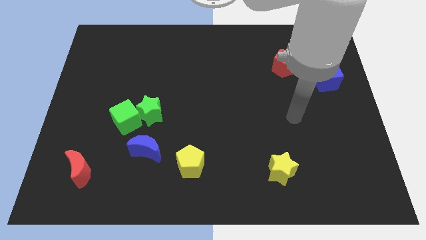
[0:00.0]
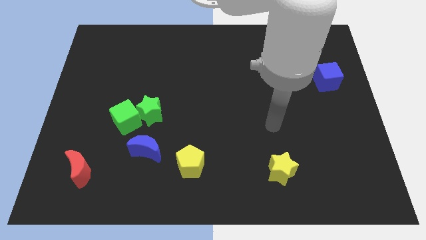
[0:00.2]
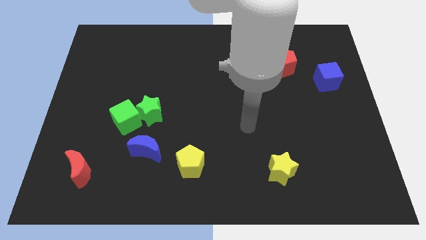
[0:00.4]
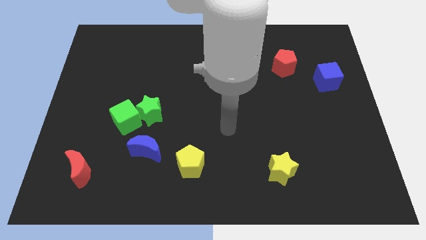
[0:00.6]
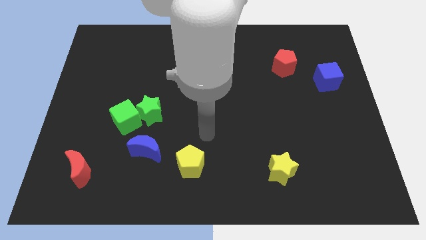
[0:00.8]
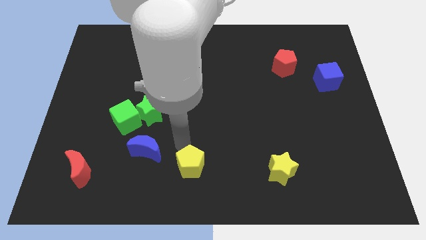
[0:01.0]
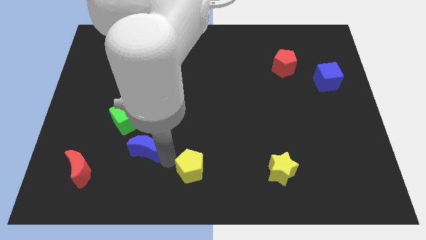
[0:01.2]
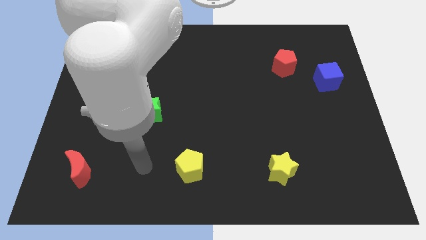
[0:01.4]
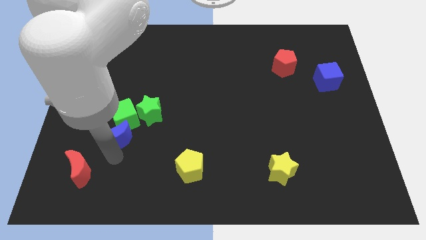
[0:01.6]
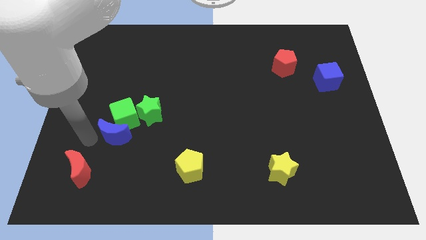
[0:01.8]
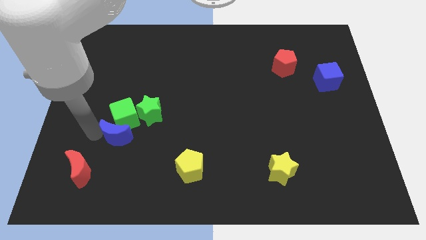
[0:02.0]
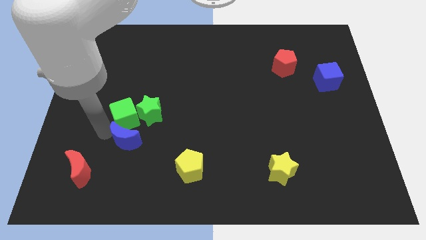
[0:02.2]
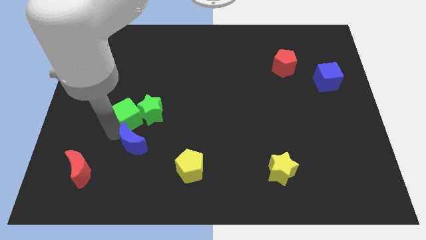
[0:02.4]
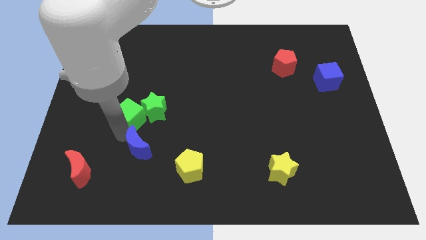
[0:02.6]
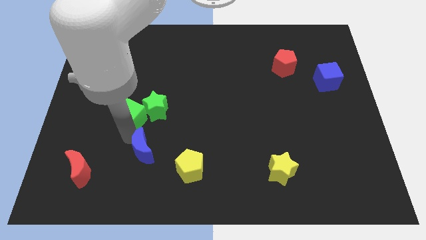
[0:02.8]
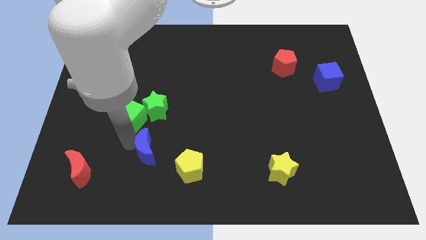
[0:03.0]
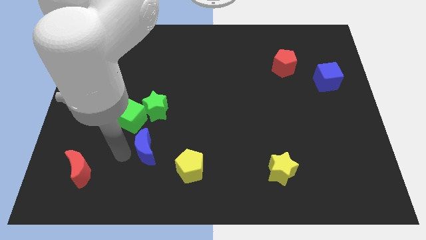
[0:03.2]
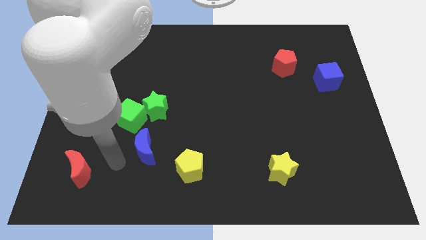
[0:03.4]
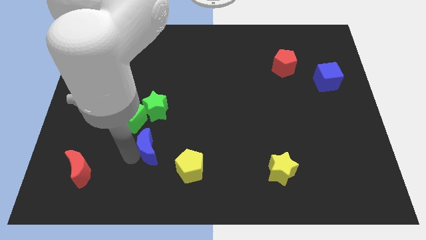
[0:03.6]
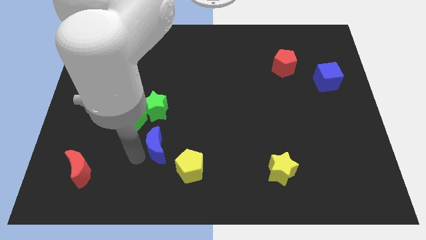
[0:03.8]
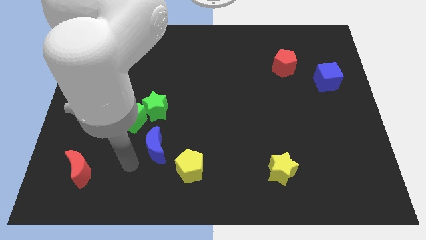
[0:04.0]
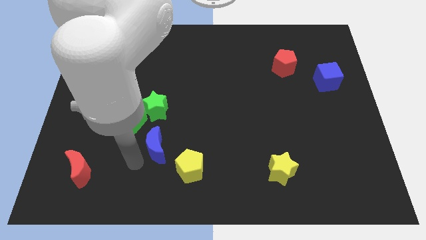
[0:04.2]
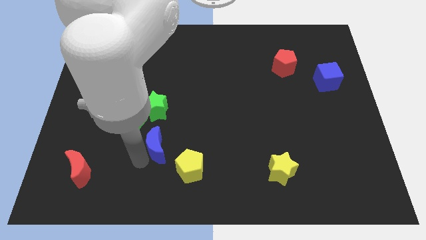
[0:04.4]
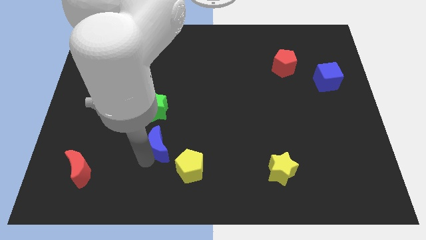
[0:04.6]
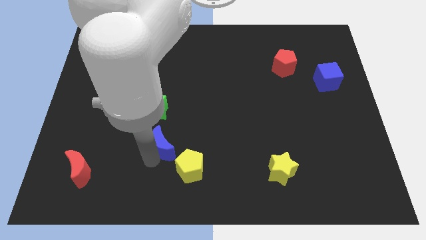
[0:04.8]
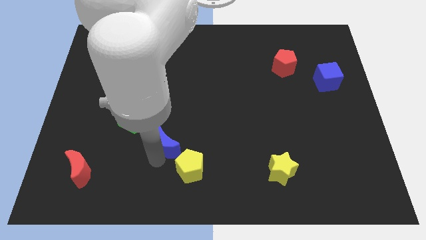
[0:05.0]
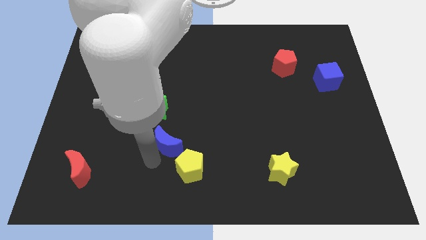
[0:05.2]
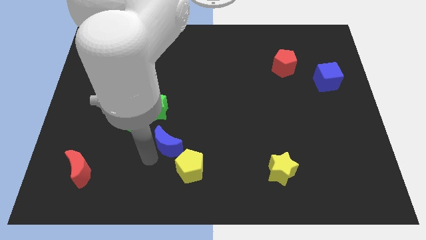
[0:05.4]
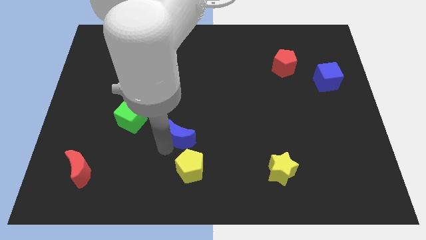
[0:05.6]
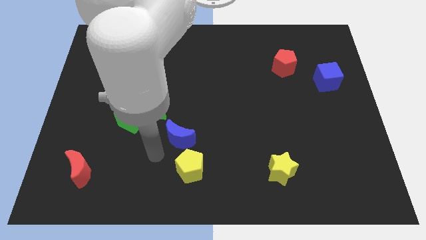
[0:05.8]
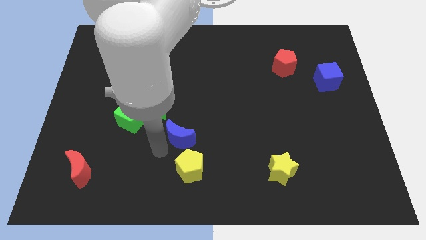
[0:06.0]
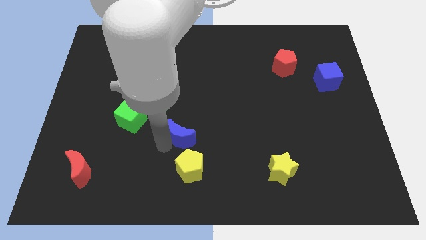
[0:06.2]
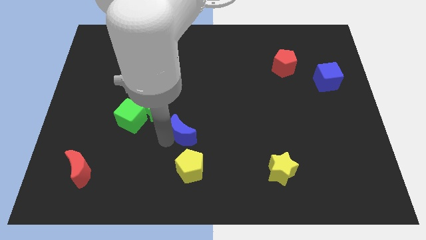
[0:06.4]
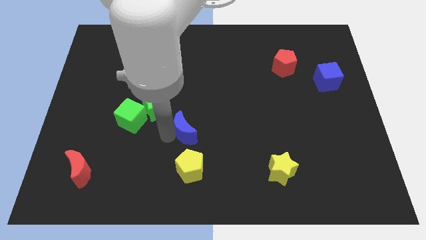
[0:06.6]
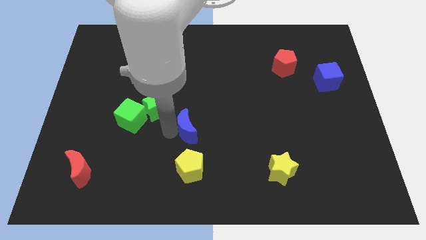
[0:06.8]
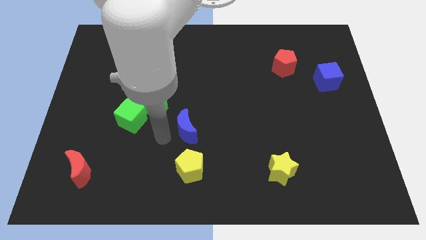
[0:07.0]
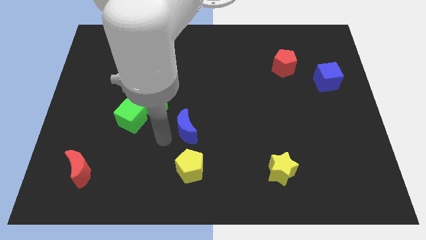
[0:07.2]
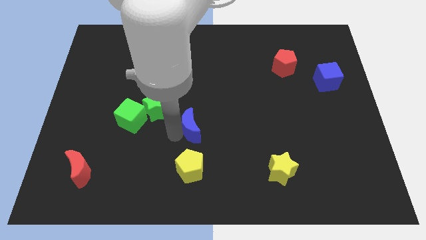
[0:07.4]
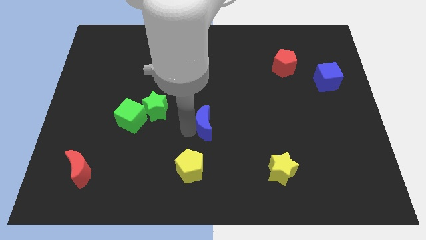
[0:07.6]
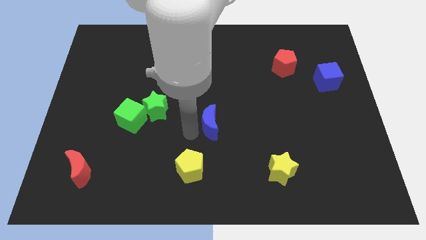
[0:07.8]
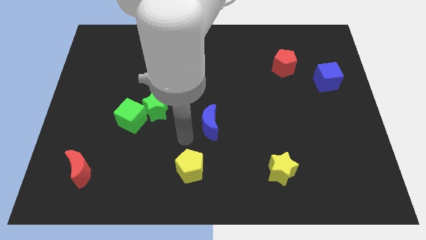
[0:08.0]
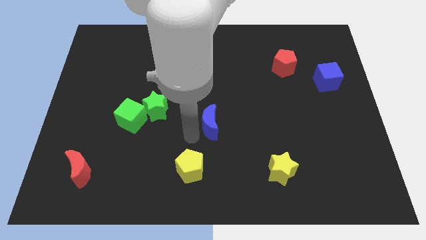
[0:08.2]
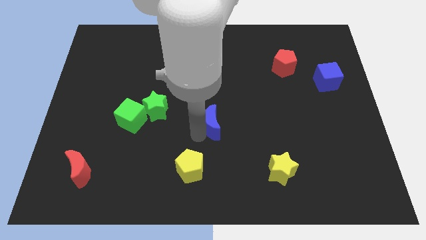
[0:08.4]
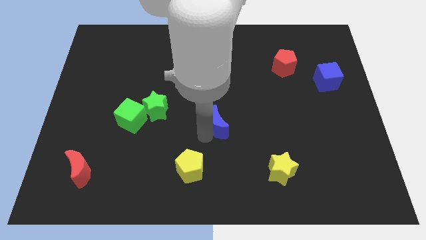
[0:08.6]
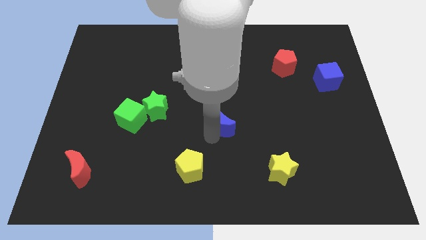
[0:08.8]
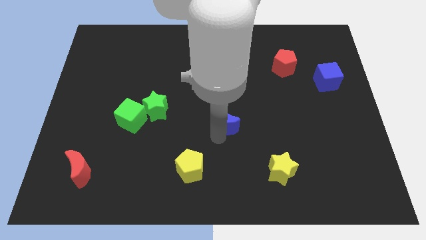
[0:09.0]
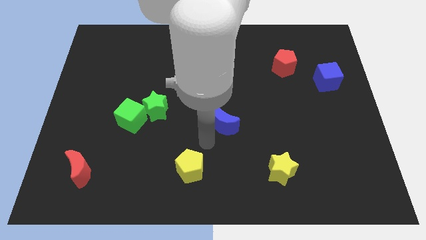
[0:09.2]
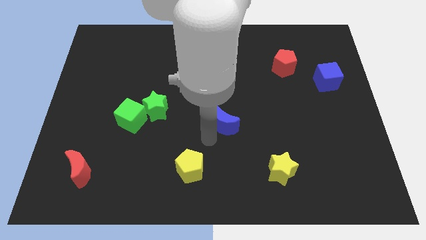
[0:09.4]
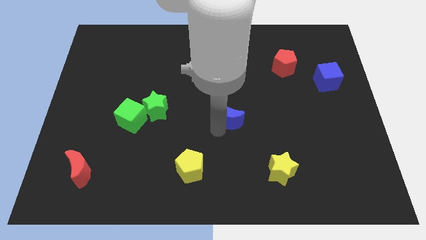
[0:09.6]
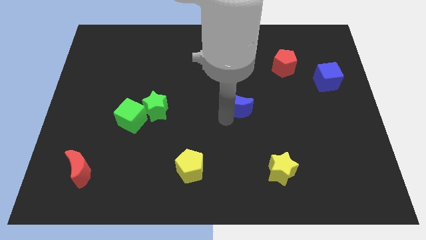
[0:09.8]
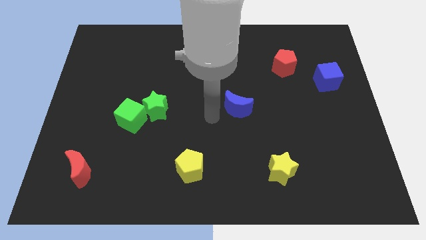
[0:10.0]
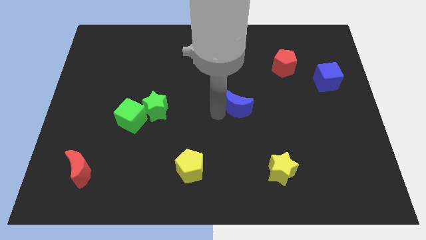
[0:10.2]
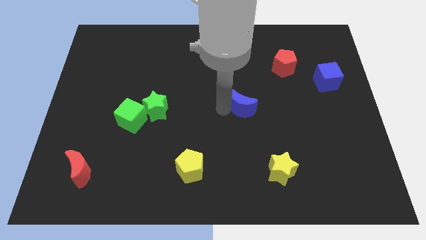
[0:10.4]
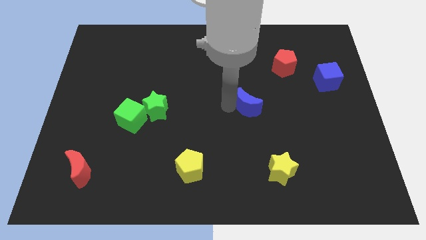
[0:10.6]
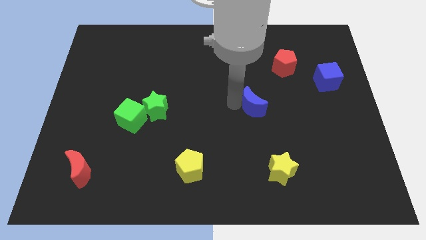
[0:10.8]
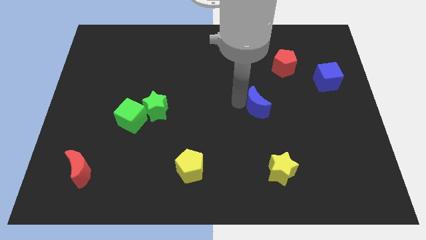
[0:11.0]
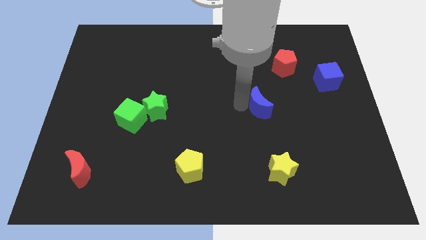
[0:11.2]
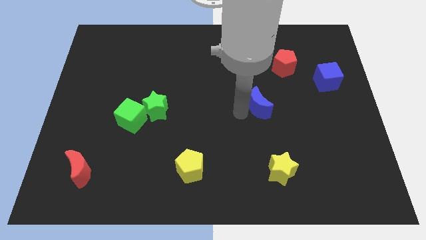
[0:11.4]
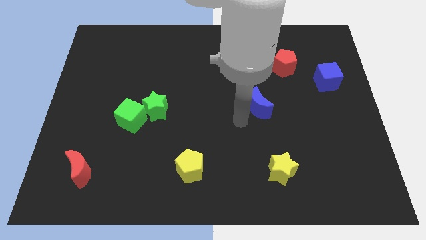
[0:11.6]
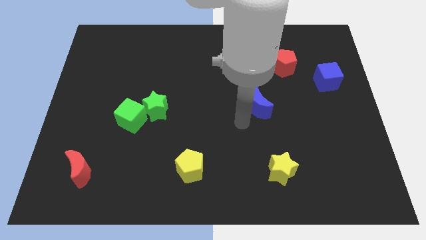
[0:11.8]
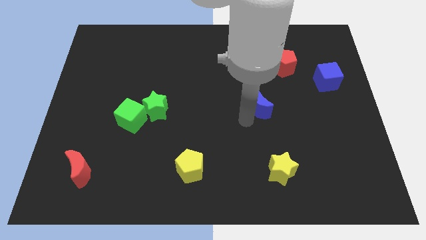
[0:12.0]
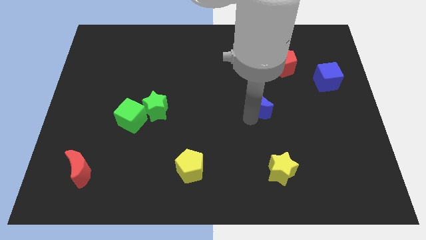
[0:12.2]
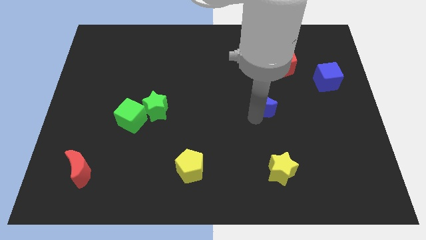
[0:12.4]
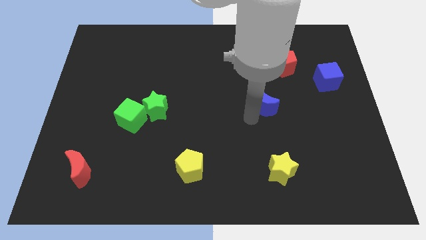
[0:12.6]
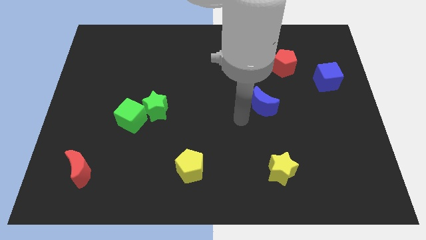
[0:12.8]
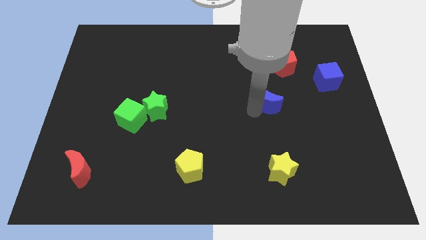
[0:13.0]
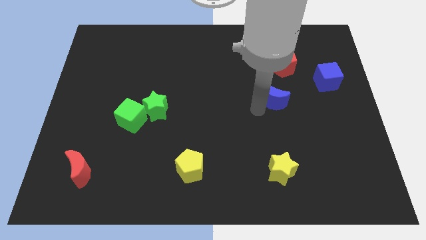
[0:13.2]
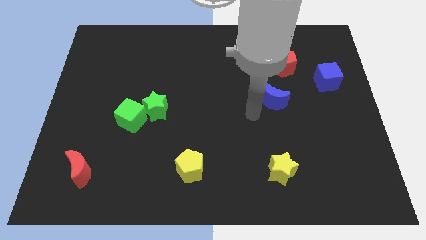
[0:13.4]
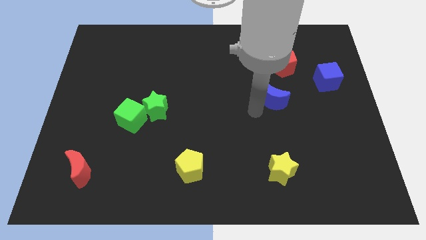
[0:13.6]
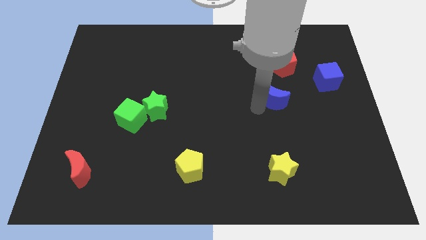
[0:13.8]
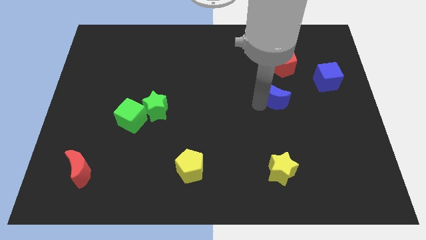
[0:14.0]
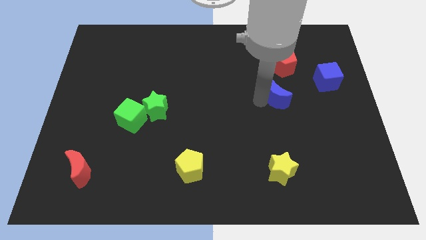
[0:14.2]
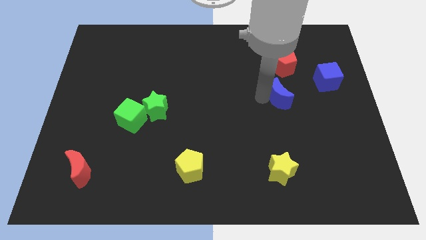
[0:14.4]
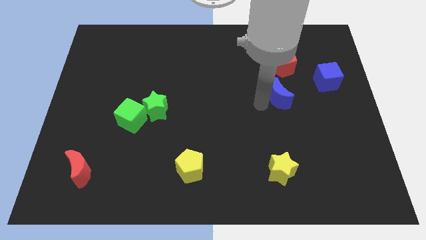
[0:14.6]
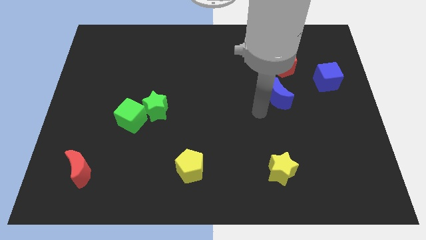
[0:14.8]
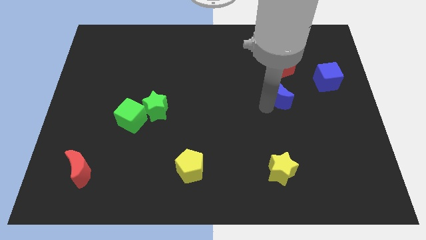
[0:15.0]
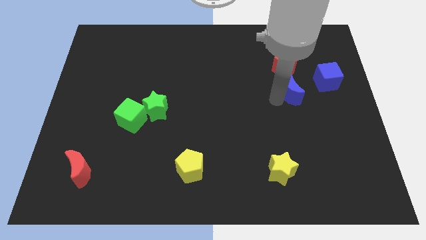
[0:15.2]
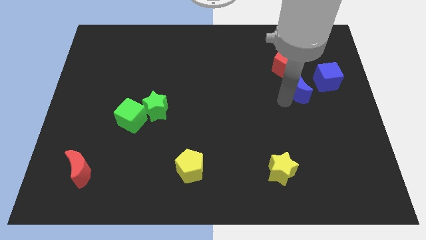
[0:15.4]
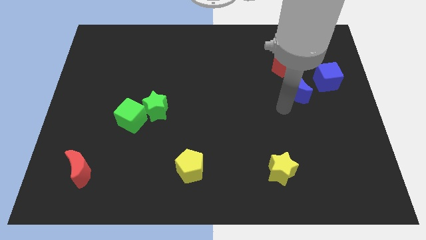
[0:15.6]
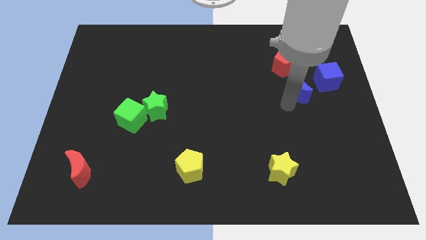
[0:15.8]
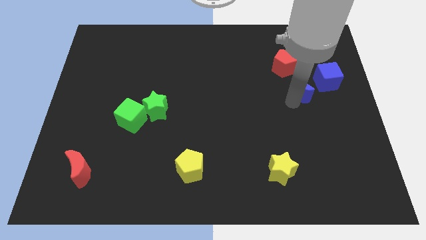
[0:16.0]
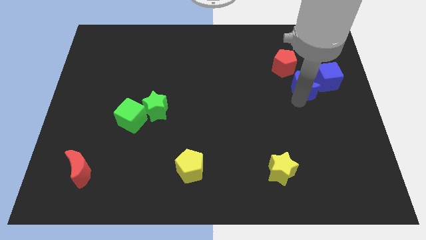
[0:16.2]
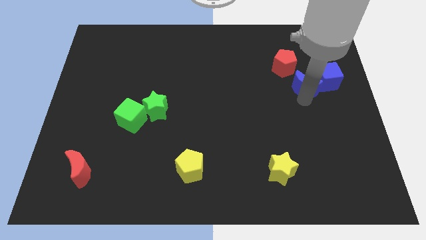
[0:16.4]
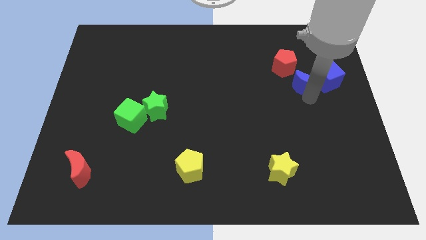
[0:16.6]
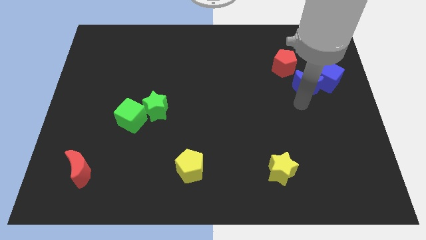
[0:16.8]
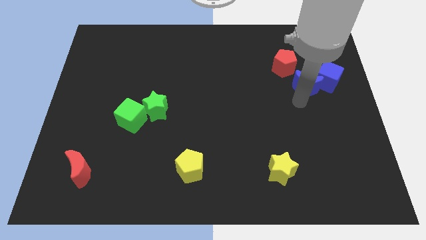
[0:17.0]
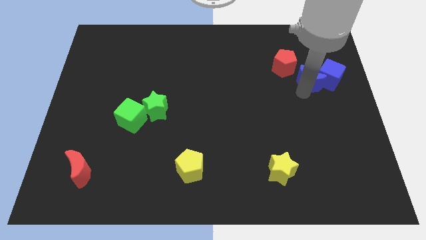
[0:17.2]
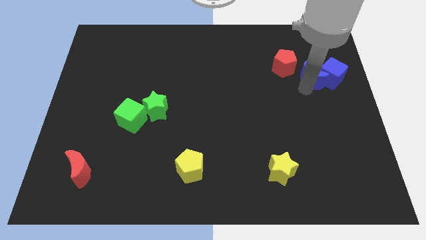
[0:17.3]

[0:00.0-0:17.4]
move the blue moon to the right side of the red pentagon
